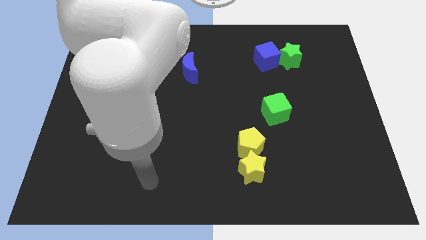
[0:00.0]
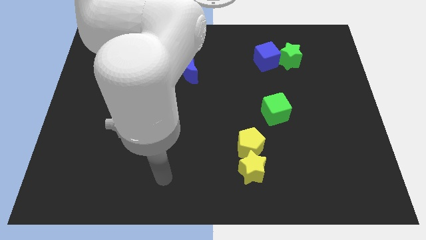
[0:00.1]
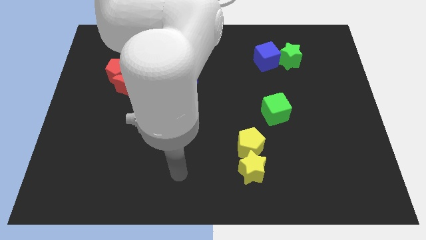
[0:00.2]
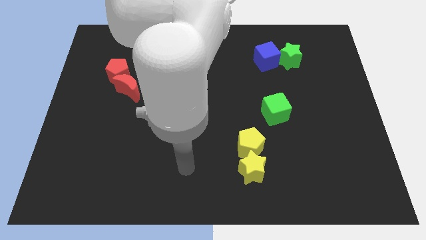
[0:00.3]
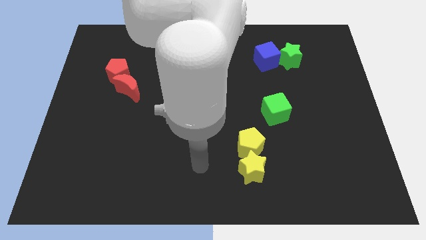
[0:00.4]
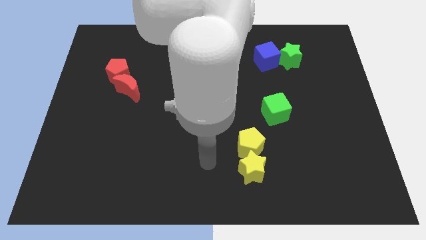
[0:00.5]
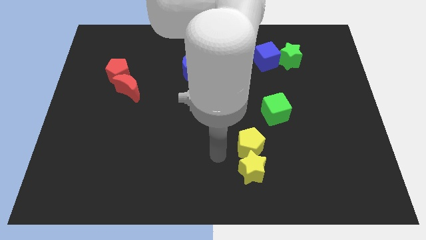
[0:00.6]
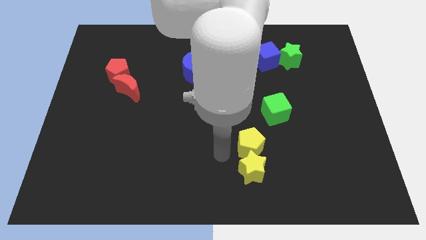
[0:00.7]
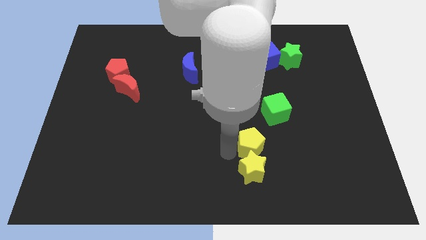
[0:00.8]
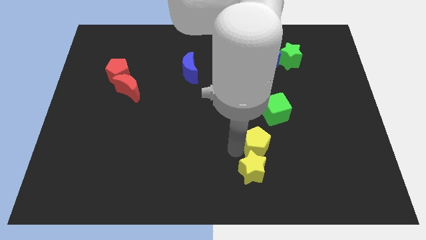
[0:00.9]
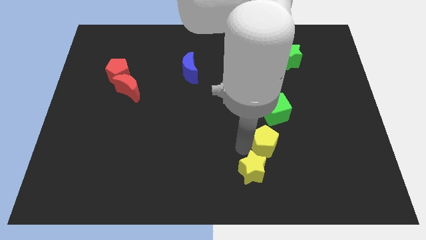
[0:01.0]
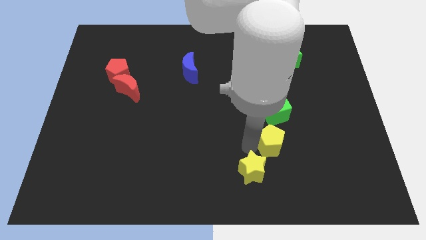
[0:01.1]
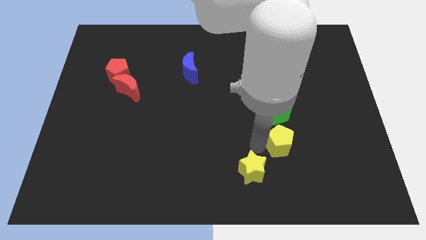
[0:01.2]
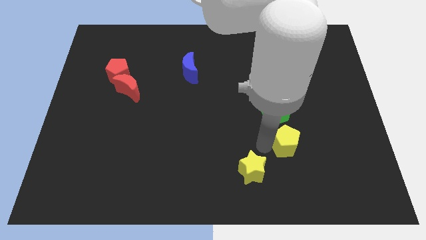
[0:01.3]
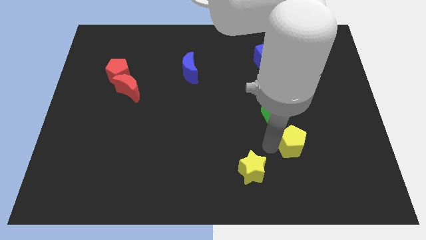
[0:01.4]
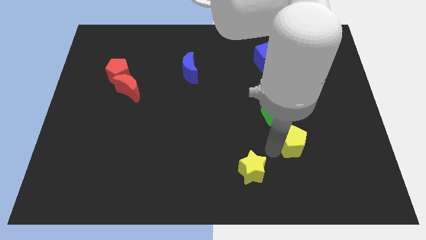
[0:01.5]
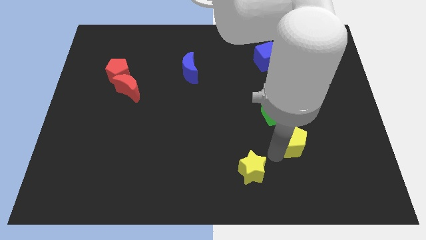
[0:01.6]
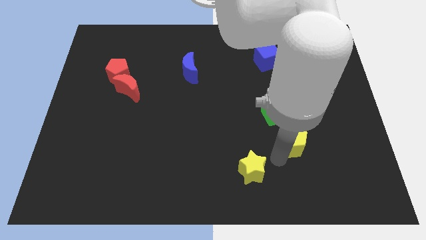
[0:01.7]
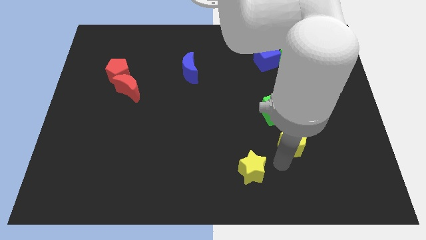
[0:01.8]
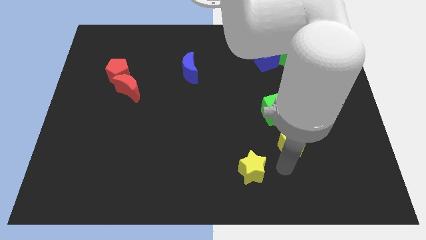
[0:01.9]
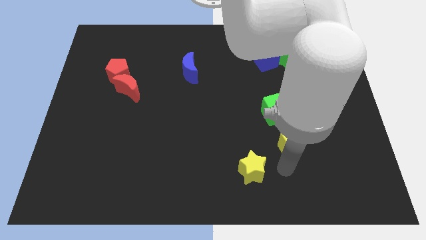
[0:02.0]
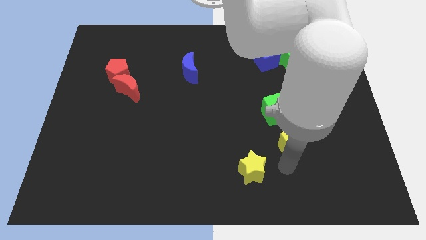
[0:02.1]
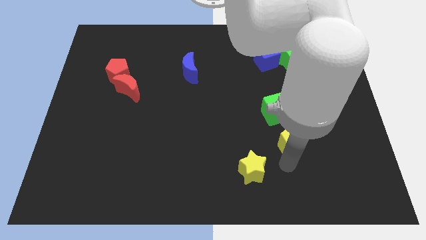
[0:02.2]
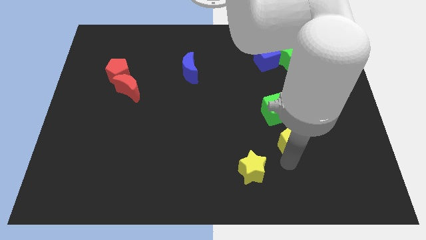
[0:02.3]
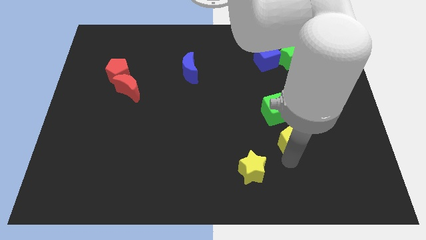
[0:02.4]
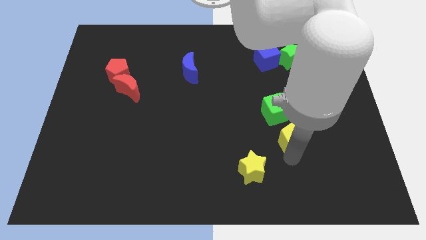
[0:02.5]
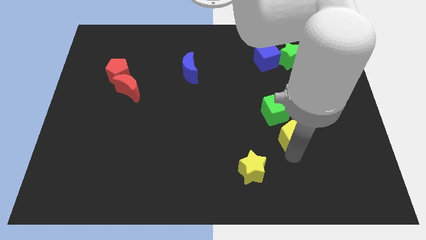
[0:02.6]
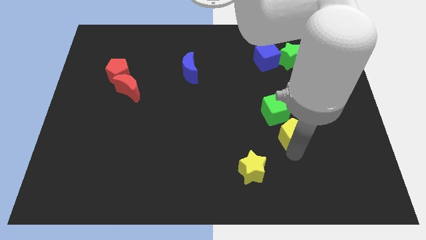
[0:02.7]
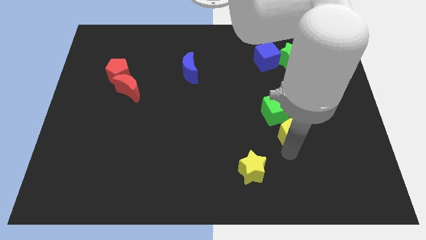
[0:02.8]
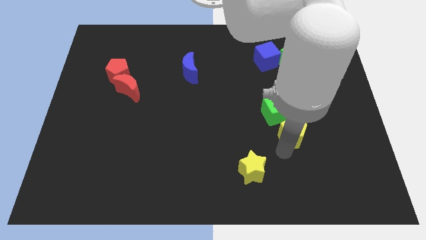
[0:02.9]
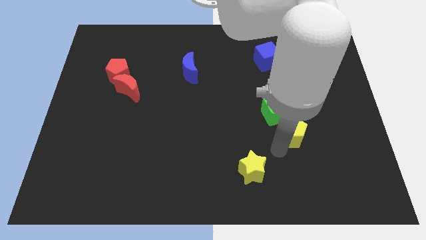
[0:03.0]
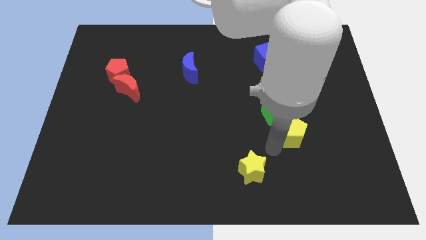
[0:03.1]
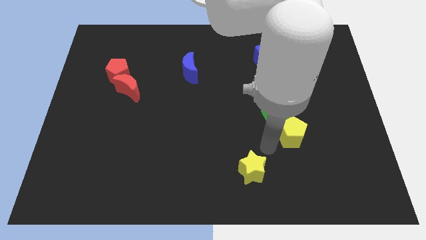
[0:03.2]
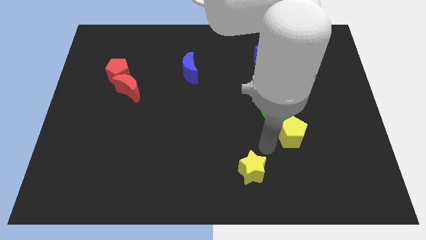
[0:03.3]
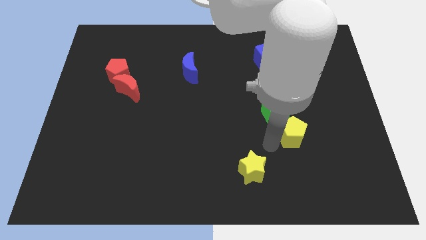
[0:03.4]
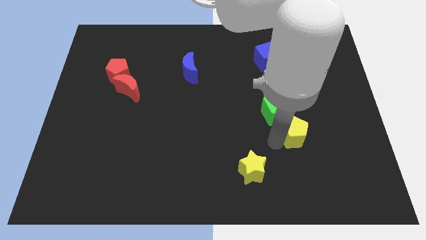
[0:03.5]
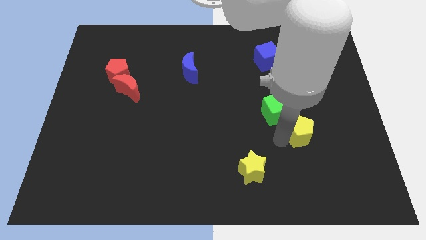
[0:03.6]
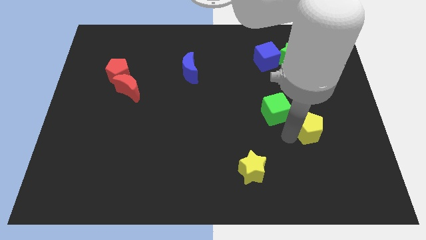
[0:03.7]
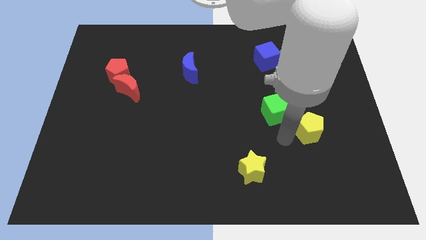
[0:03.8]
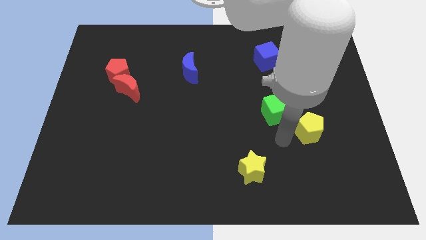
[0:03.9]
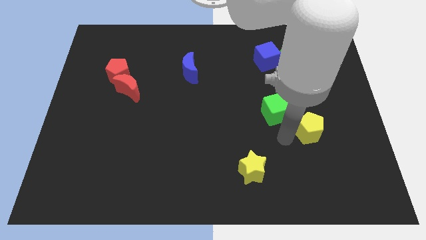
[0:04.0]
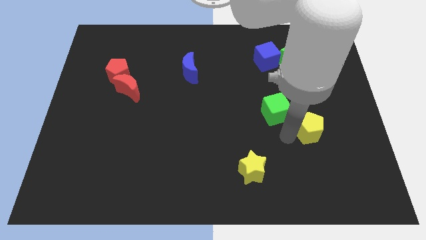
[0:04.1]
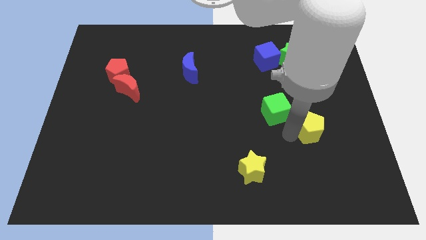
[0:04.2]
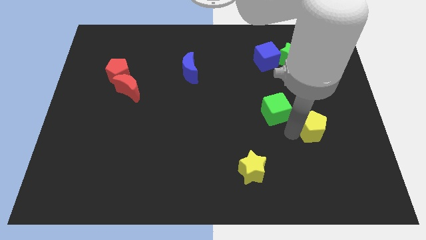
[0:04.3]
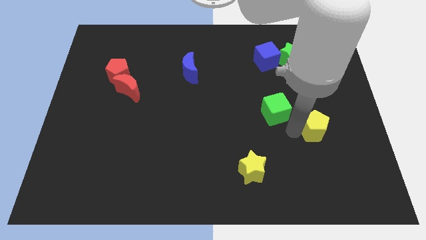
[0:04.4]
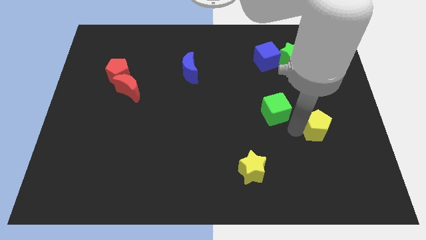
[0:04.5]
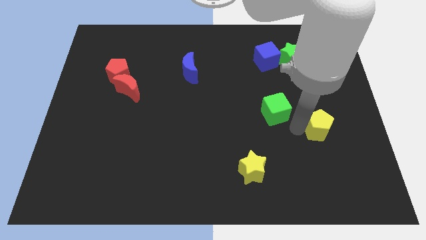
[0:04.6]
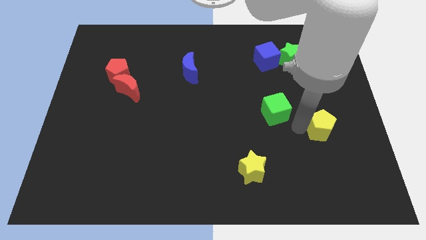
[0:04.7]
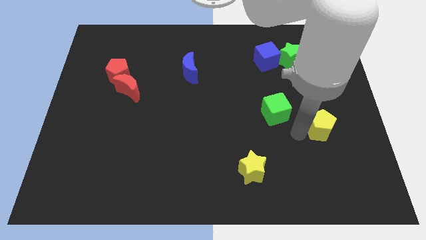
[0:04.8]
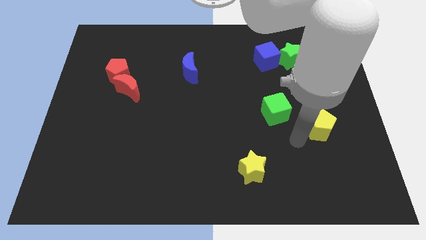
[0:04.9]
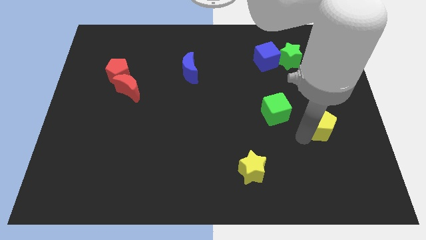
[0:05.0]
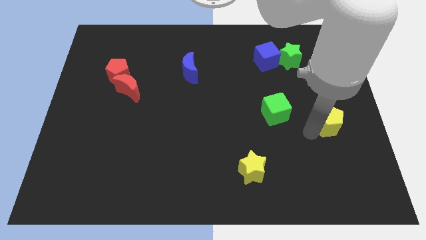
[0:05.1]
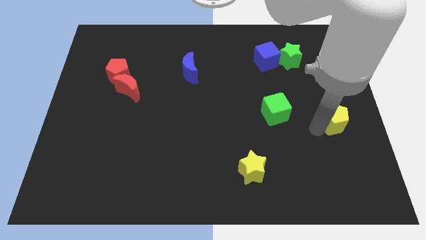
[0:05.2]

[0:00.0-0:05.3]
push the yellow pentagon to the right side

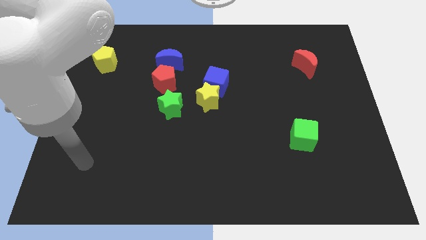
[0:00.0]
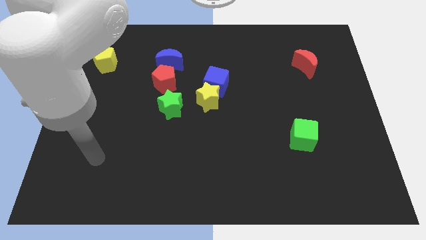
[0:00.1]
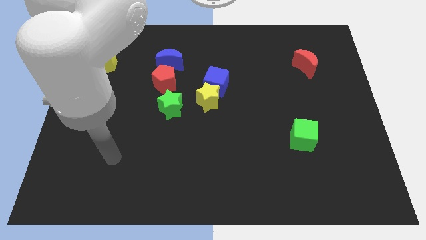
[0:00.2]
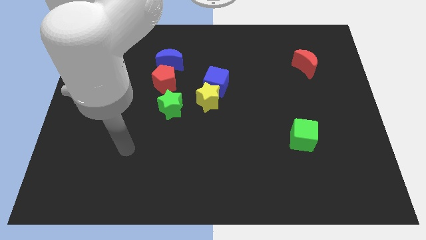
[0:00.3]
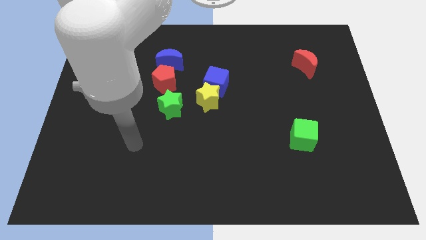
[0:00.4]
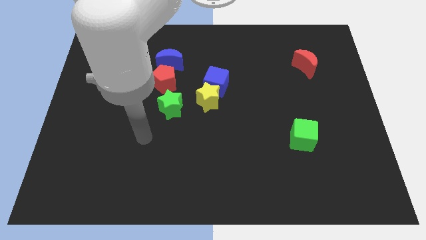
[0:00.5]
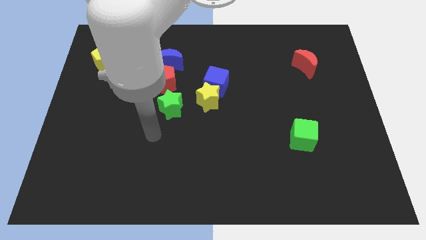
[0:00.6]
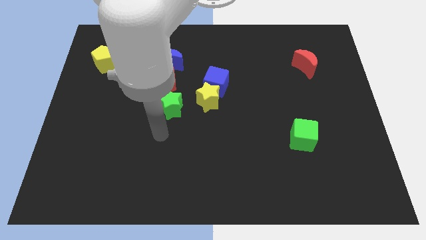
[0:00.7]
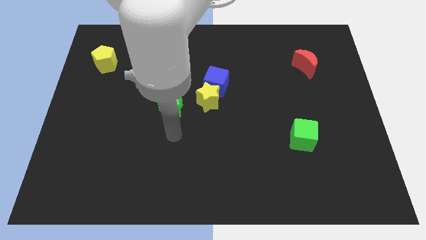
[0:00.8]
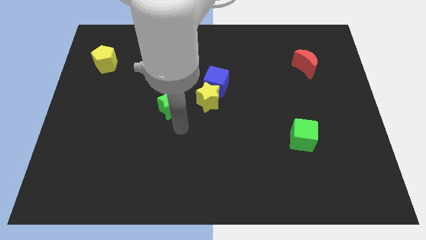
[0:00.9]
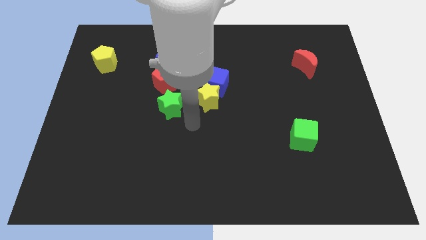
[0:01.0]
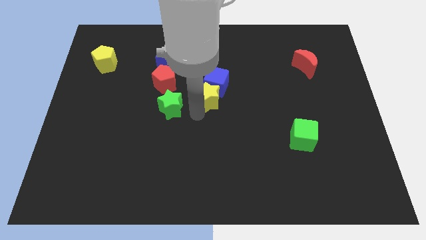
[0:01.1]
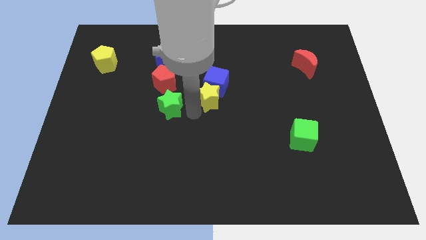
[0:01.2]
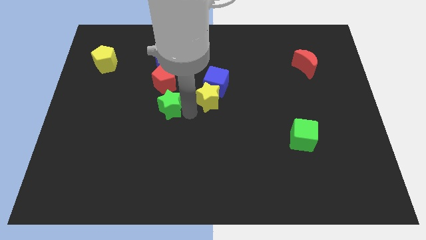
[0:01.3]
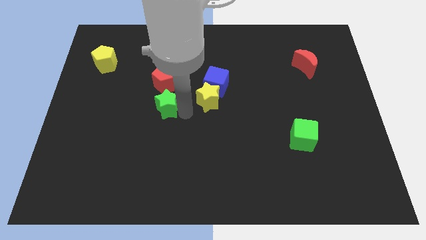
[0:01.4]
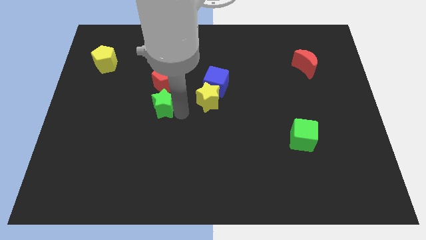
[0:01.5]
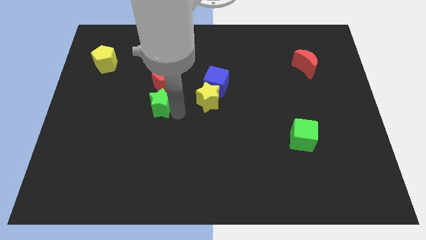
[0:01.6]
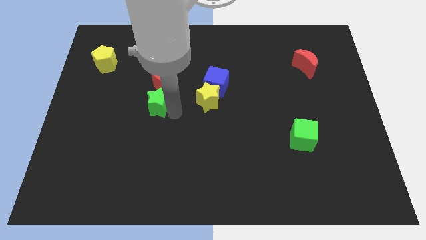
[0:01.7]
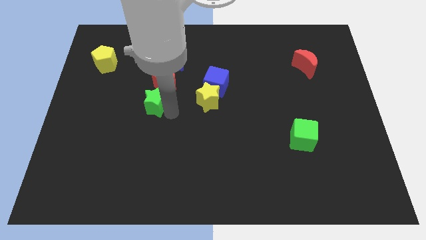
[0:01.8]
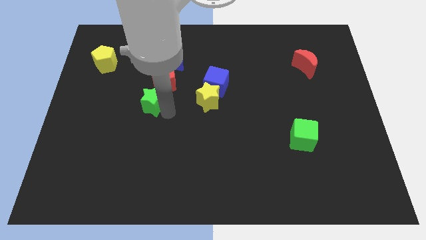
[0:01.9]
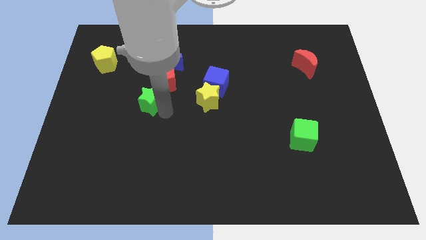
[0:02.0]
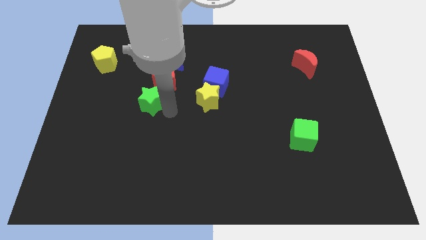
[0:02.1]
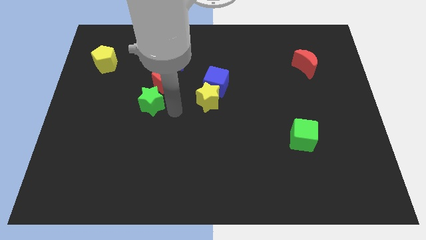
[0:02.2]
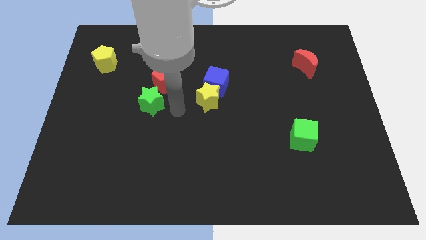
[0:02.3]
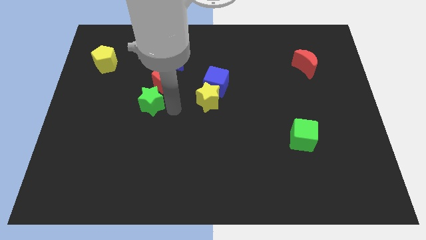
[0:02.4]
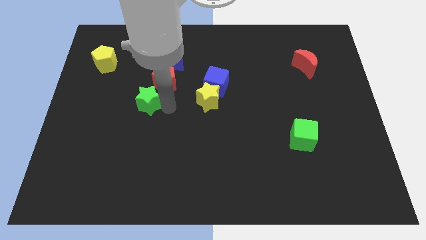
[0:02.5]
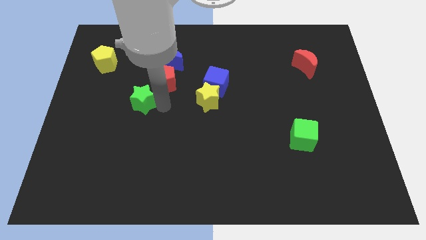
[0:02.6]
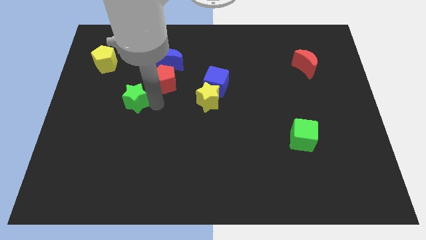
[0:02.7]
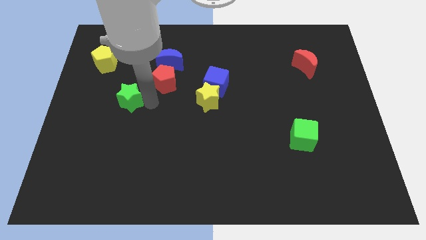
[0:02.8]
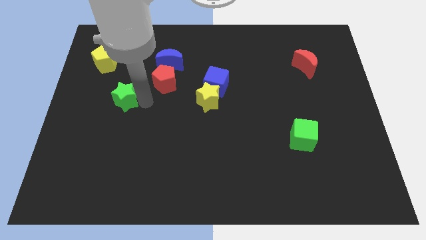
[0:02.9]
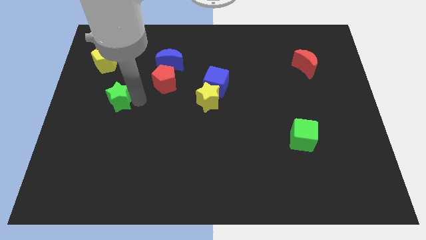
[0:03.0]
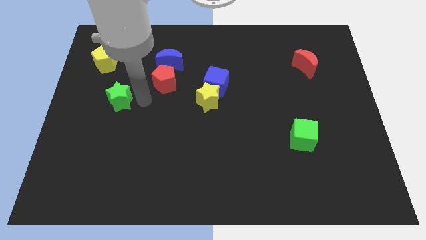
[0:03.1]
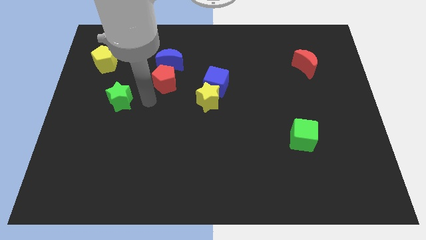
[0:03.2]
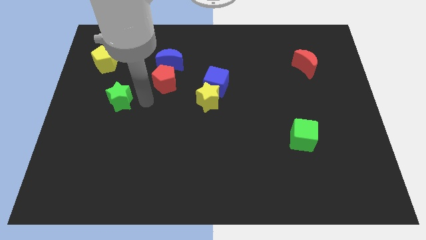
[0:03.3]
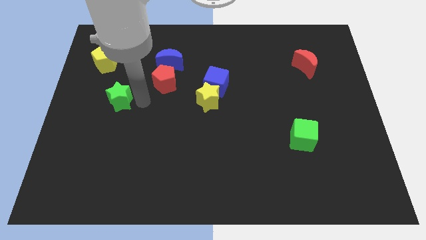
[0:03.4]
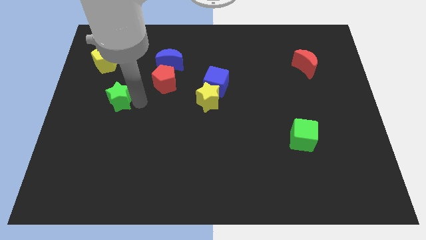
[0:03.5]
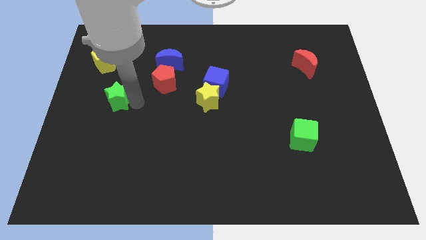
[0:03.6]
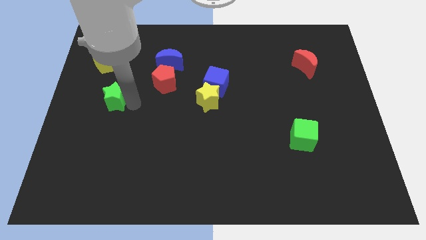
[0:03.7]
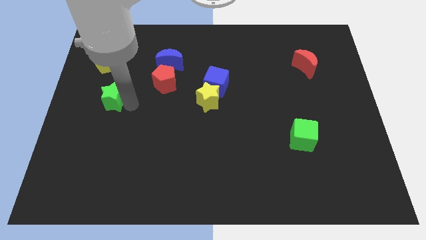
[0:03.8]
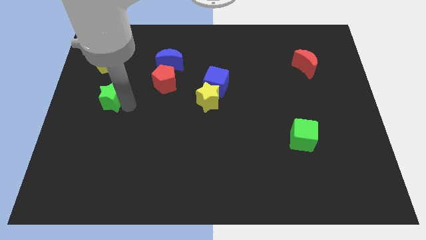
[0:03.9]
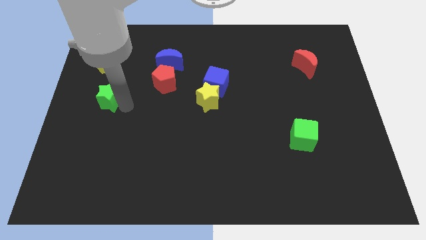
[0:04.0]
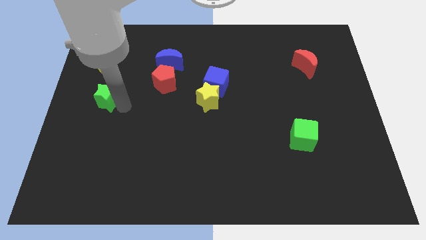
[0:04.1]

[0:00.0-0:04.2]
put the green star to the center left
